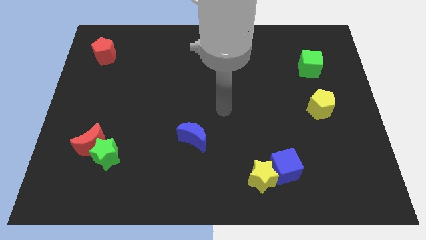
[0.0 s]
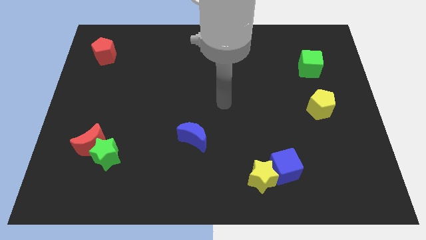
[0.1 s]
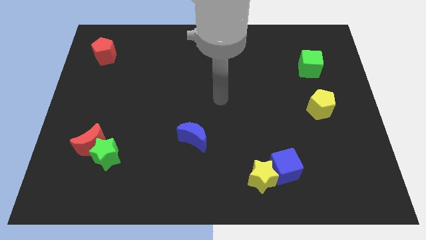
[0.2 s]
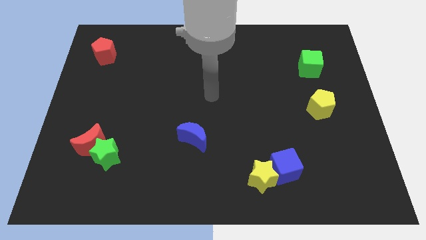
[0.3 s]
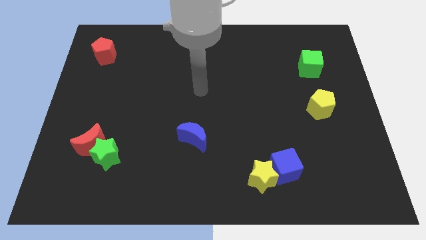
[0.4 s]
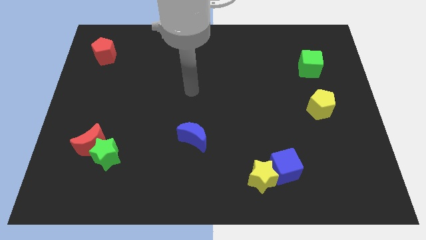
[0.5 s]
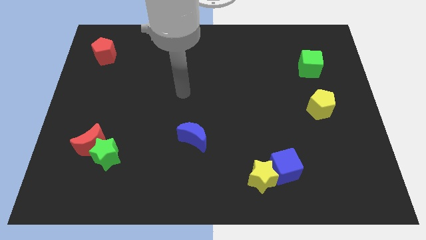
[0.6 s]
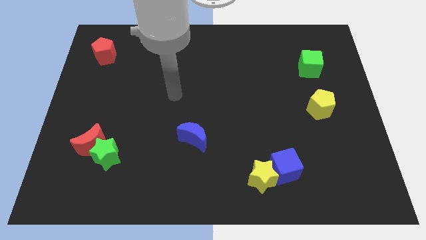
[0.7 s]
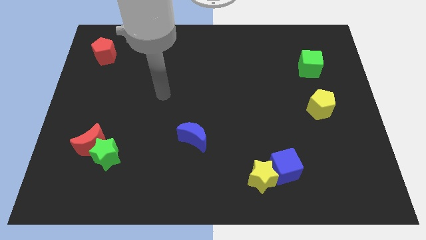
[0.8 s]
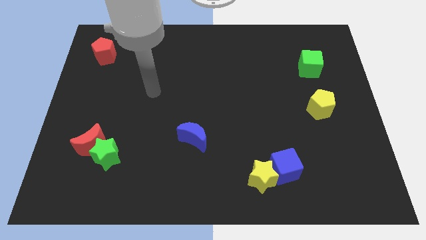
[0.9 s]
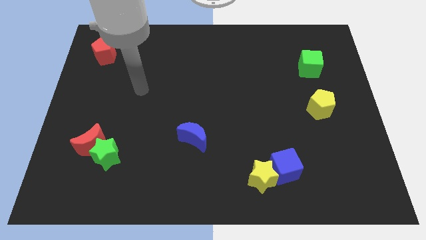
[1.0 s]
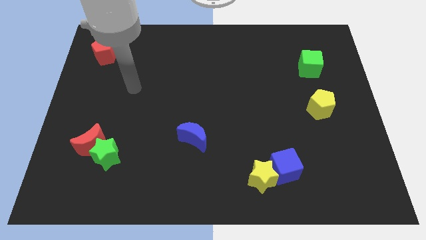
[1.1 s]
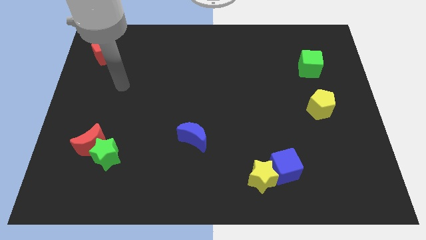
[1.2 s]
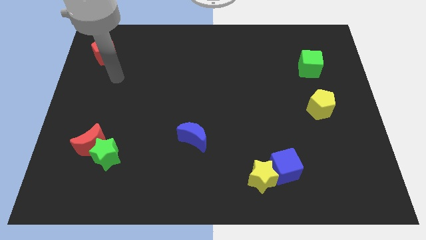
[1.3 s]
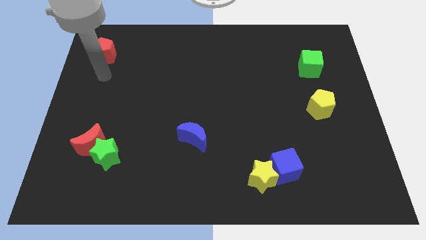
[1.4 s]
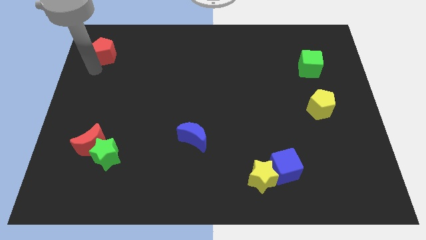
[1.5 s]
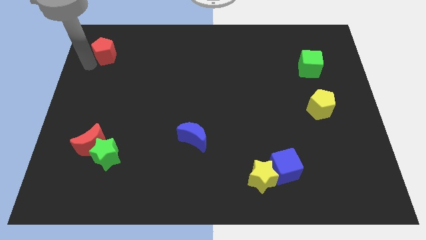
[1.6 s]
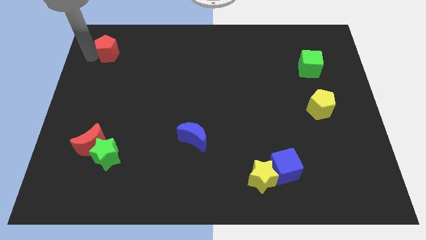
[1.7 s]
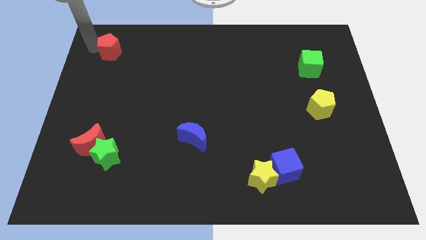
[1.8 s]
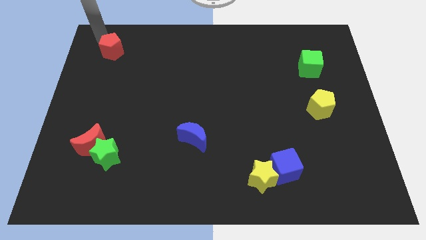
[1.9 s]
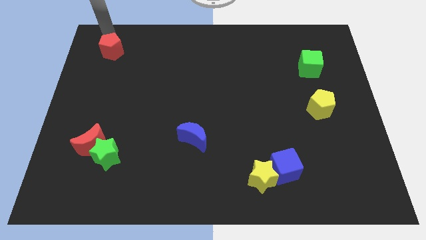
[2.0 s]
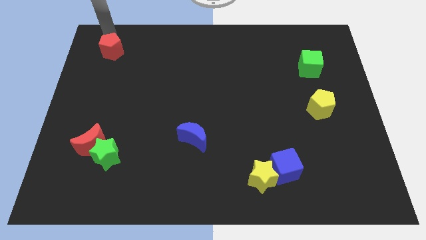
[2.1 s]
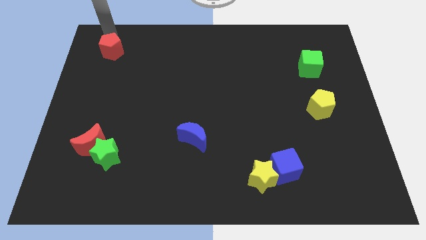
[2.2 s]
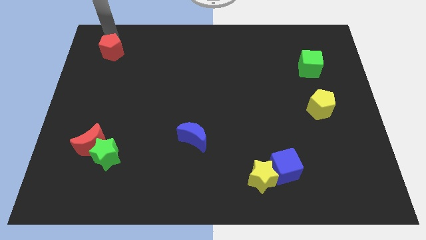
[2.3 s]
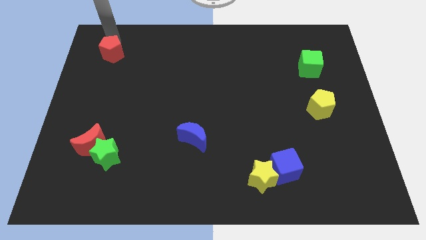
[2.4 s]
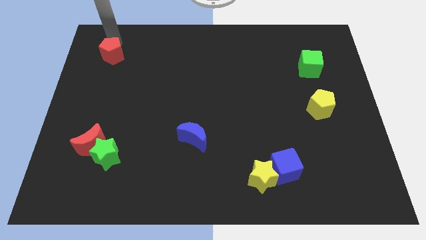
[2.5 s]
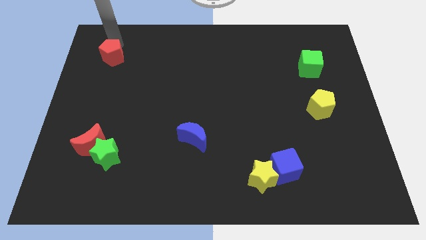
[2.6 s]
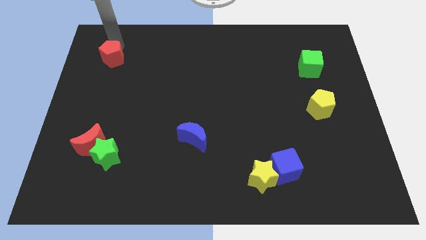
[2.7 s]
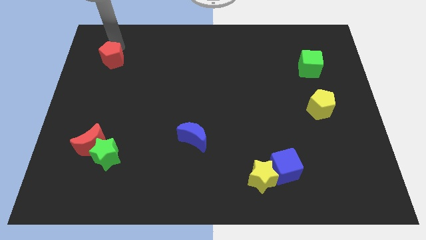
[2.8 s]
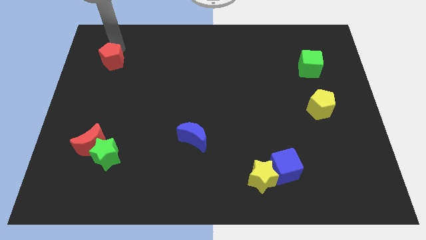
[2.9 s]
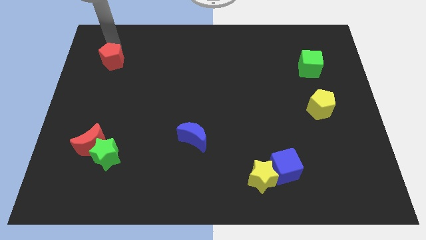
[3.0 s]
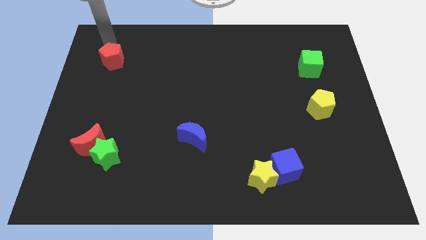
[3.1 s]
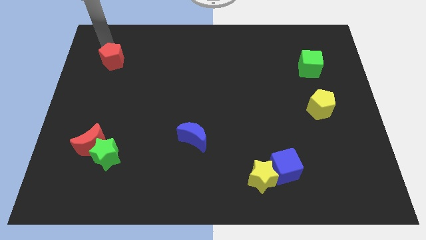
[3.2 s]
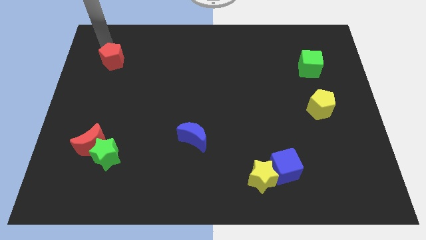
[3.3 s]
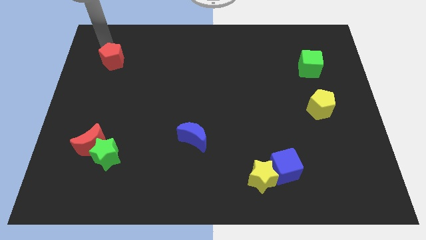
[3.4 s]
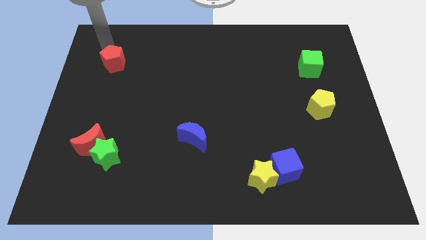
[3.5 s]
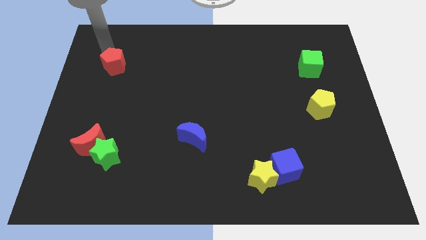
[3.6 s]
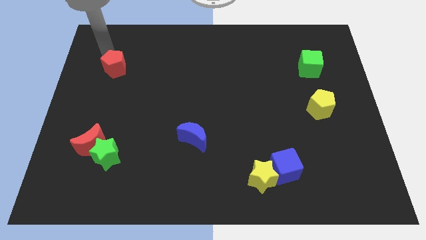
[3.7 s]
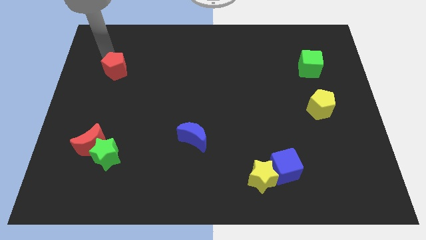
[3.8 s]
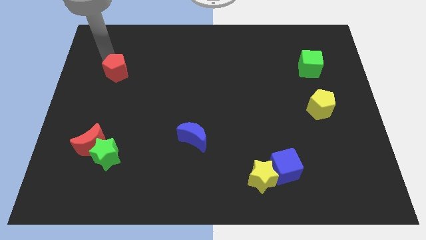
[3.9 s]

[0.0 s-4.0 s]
move the red pentagon downwards and right somewhat

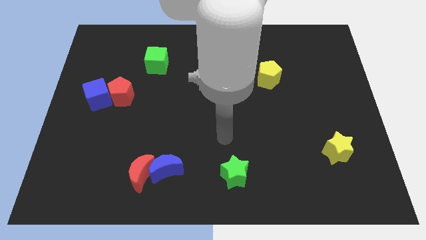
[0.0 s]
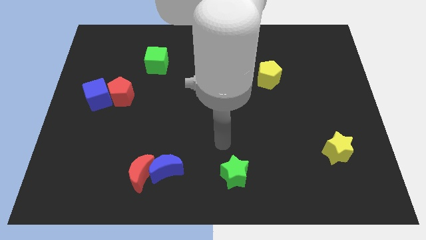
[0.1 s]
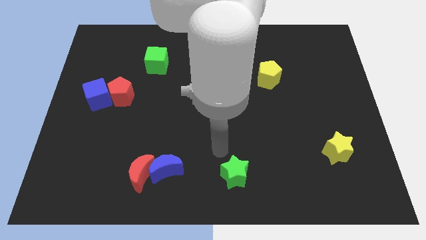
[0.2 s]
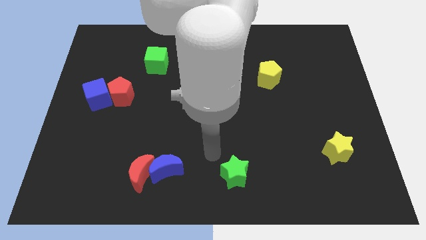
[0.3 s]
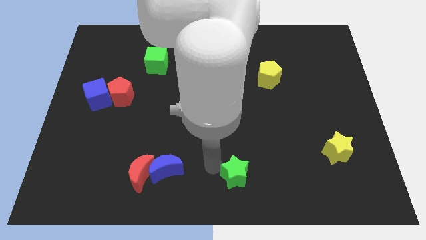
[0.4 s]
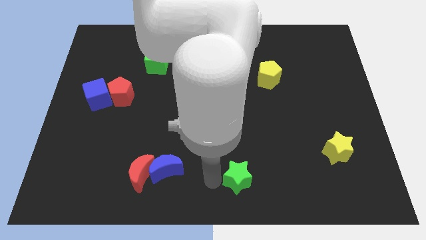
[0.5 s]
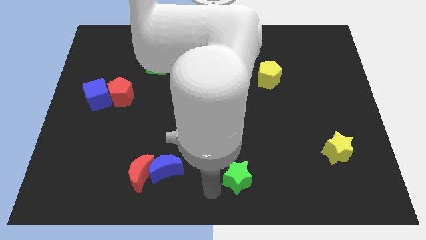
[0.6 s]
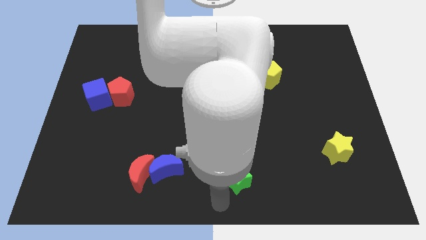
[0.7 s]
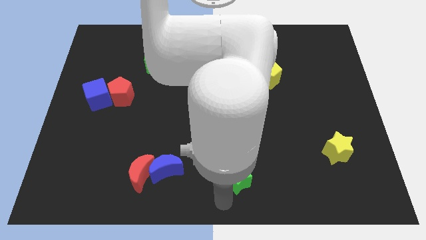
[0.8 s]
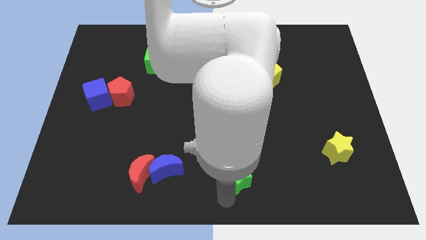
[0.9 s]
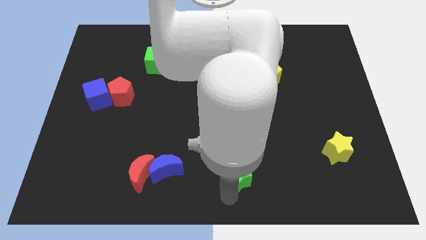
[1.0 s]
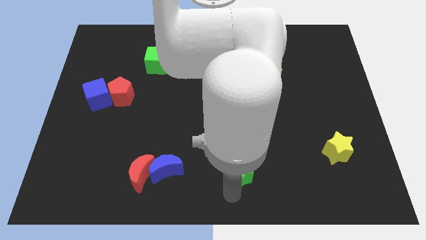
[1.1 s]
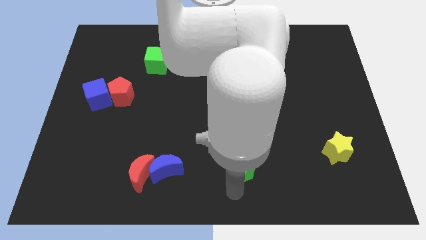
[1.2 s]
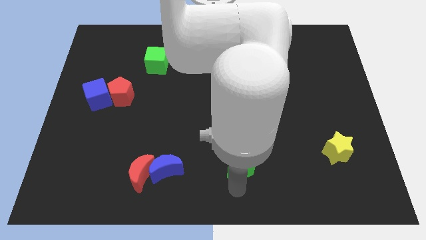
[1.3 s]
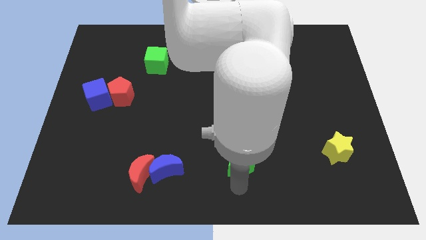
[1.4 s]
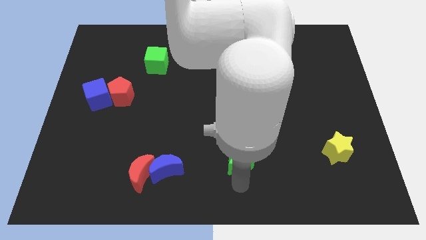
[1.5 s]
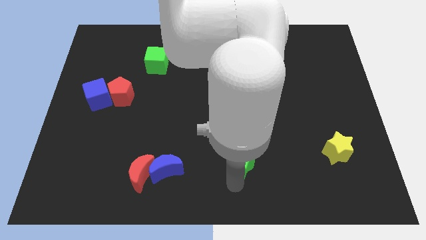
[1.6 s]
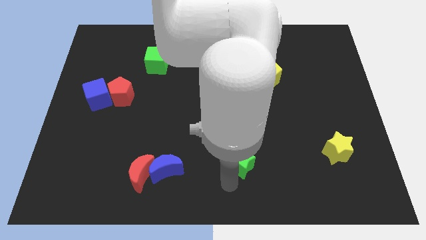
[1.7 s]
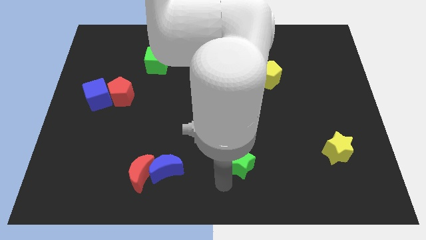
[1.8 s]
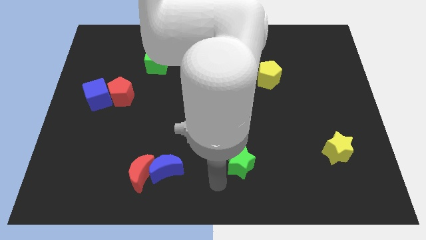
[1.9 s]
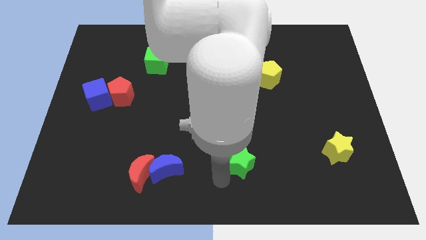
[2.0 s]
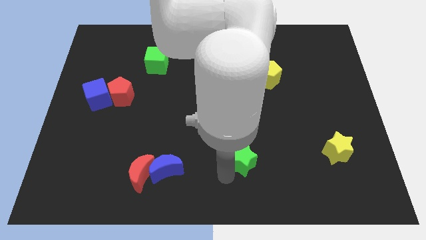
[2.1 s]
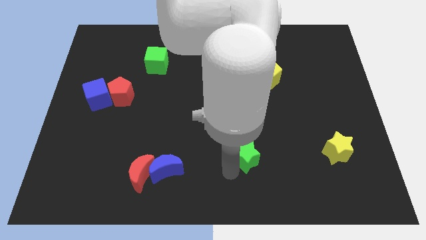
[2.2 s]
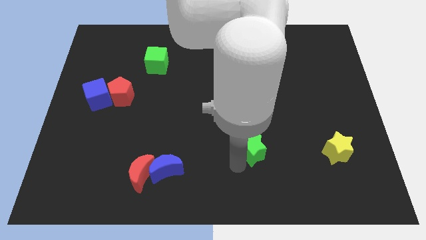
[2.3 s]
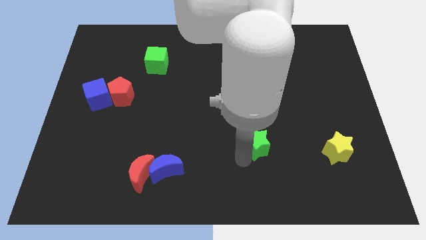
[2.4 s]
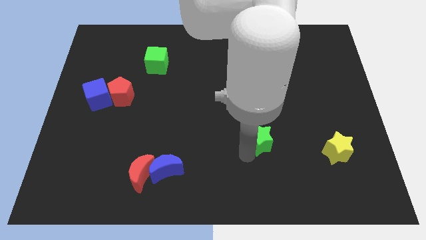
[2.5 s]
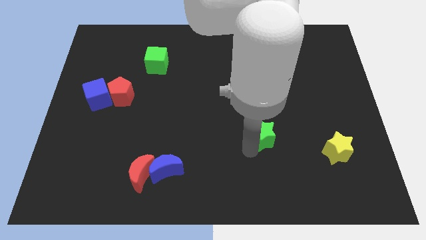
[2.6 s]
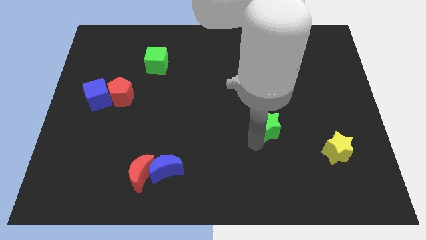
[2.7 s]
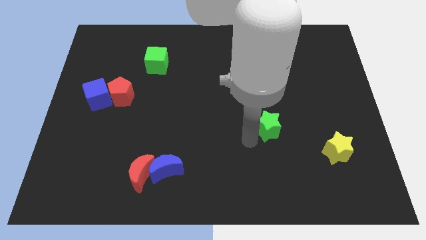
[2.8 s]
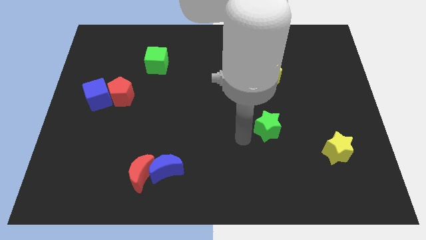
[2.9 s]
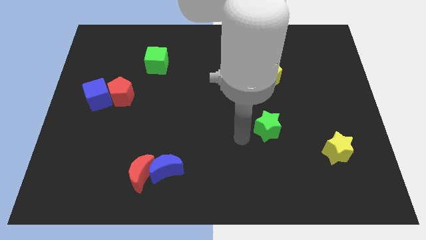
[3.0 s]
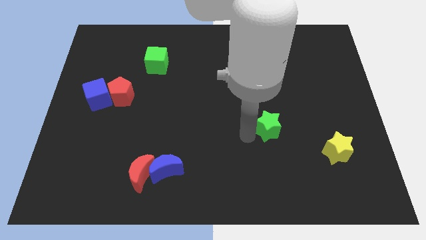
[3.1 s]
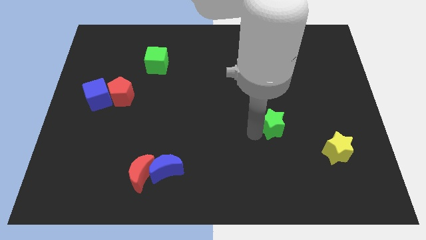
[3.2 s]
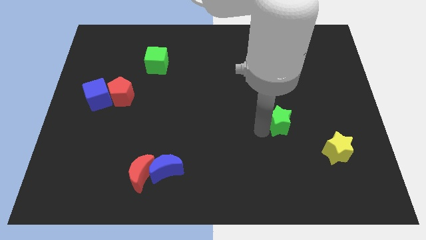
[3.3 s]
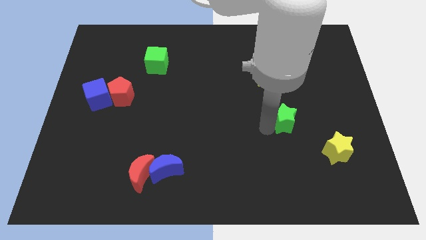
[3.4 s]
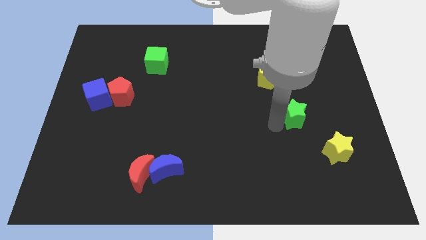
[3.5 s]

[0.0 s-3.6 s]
push the green star diagonally upwards and right
